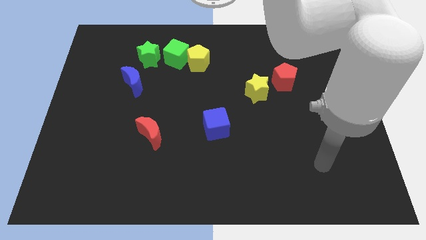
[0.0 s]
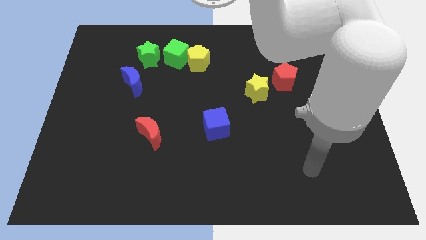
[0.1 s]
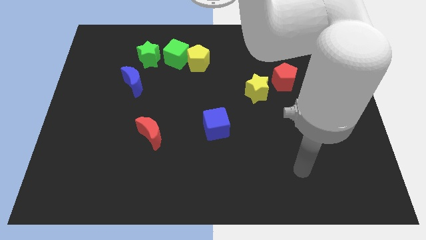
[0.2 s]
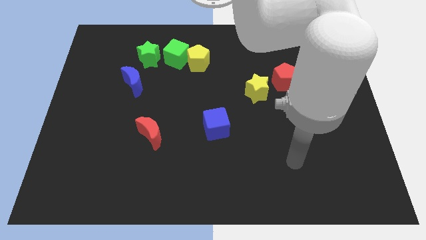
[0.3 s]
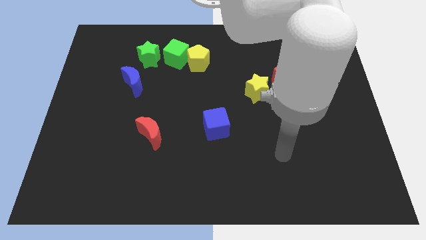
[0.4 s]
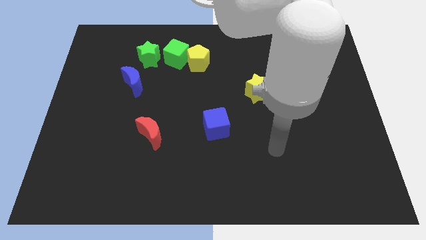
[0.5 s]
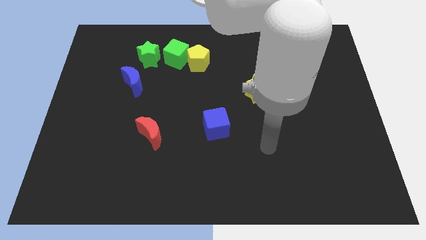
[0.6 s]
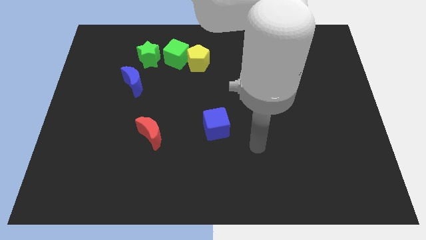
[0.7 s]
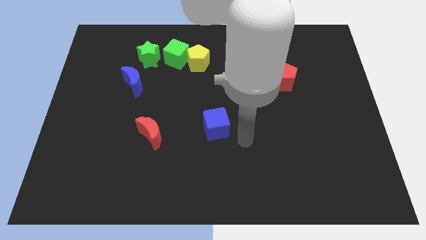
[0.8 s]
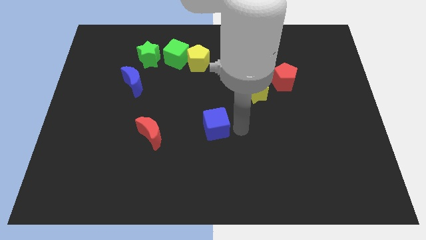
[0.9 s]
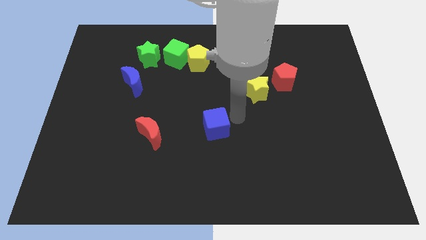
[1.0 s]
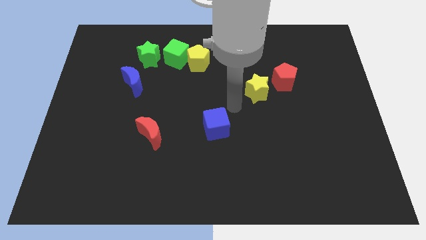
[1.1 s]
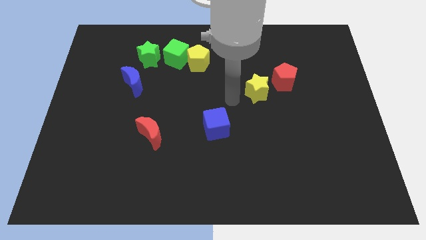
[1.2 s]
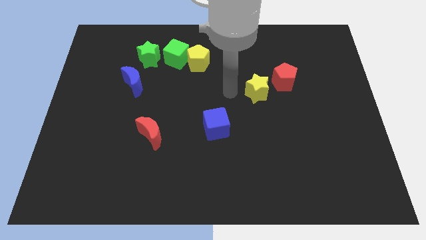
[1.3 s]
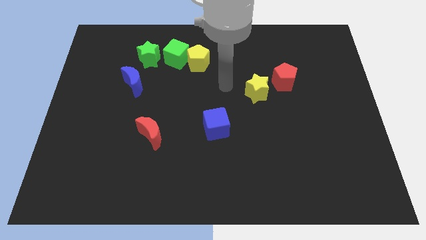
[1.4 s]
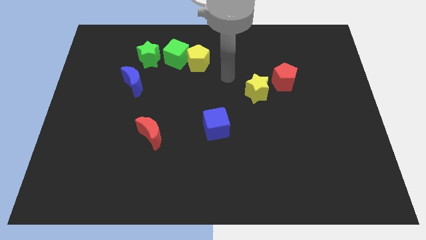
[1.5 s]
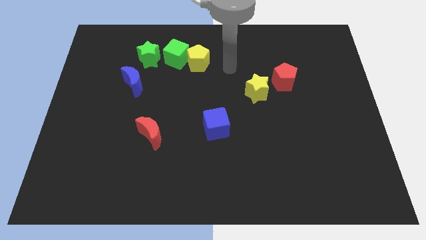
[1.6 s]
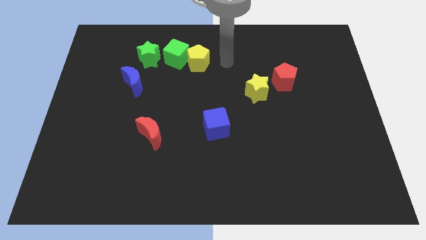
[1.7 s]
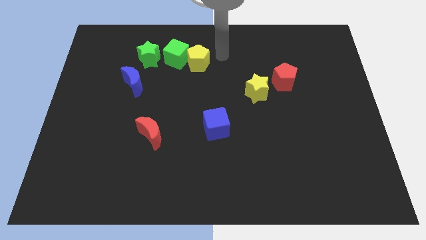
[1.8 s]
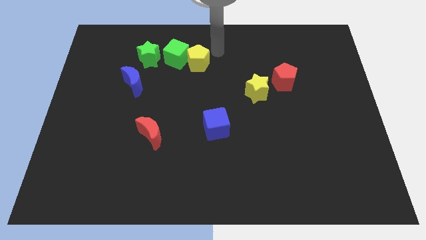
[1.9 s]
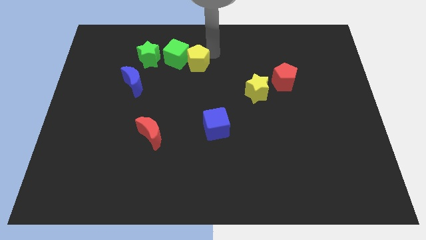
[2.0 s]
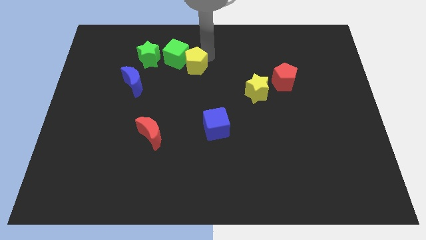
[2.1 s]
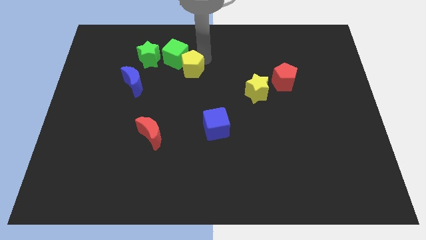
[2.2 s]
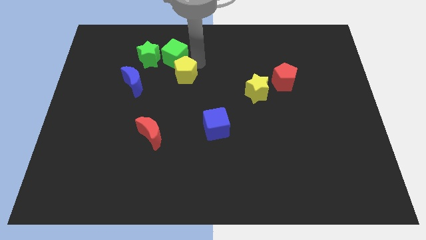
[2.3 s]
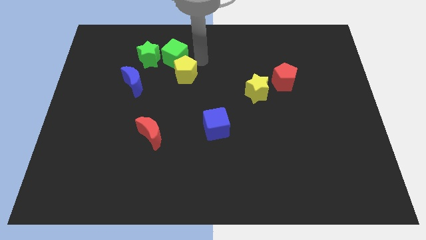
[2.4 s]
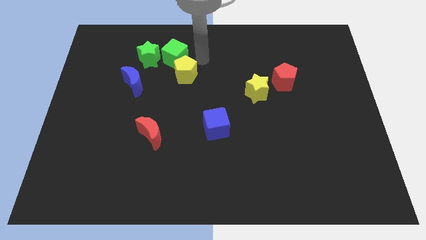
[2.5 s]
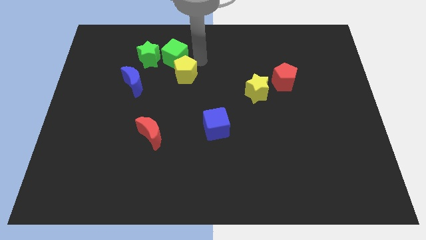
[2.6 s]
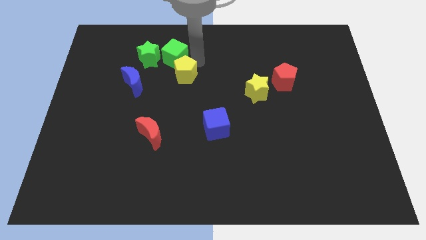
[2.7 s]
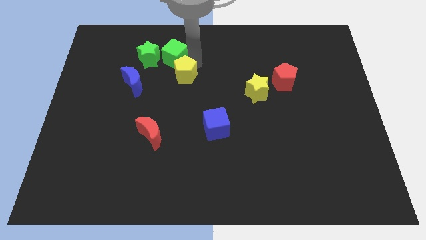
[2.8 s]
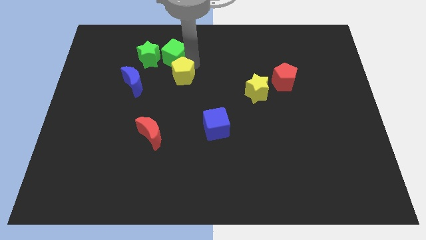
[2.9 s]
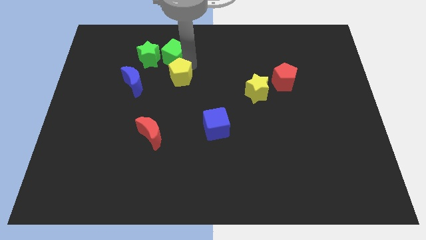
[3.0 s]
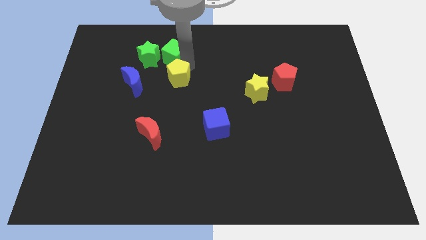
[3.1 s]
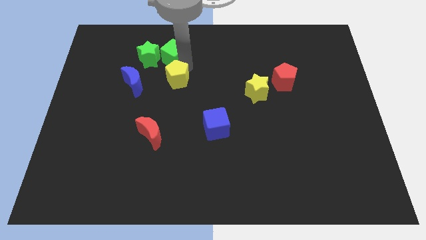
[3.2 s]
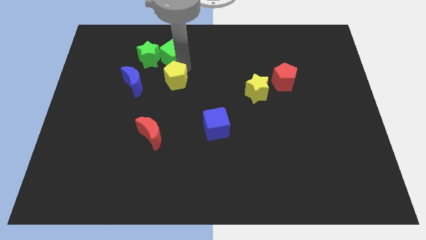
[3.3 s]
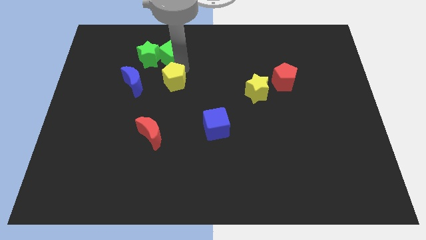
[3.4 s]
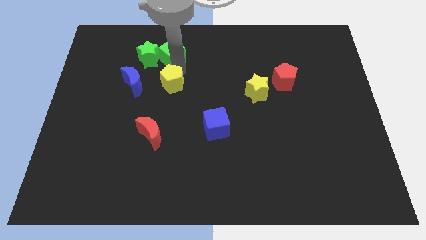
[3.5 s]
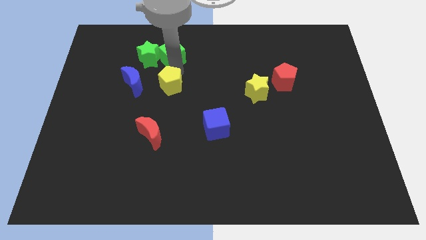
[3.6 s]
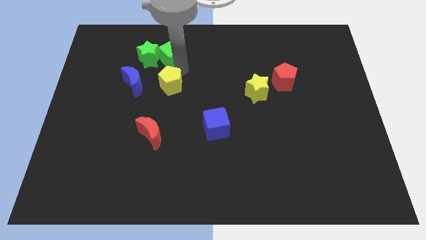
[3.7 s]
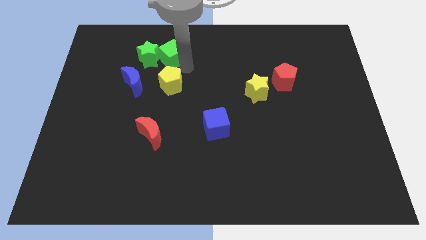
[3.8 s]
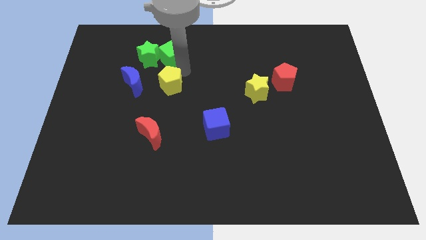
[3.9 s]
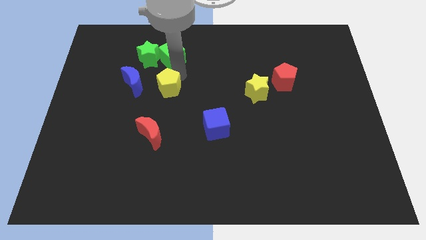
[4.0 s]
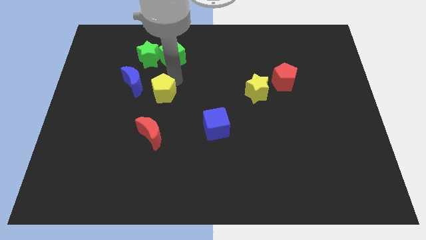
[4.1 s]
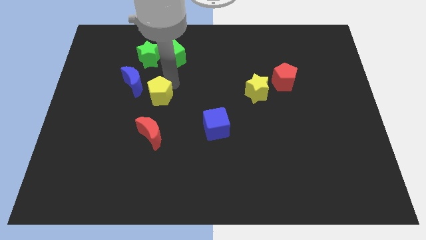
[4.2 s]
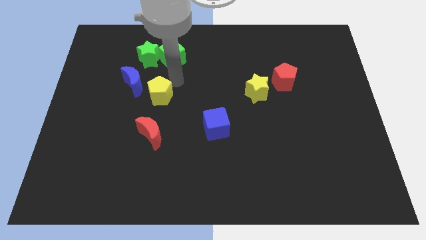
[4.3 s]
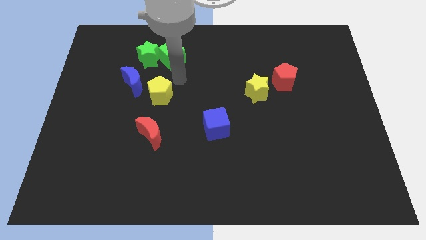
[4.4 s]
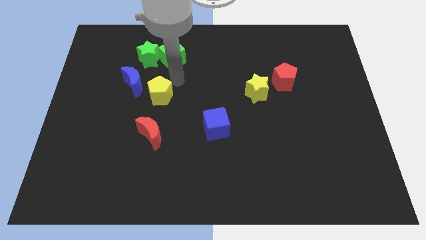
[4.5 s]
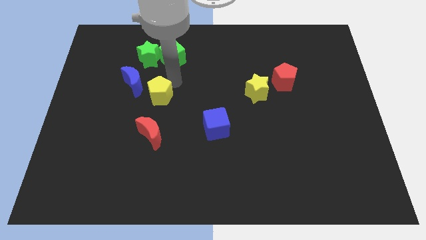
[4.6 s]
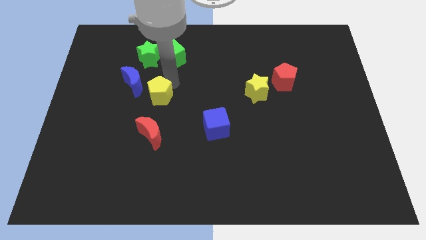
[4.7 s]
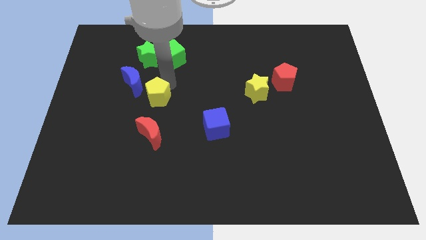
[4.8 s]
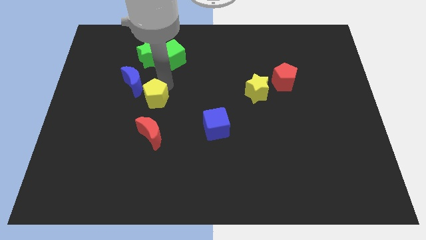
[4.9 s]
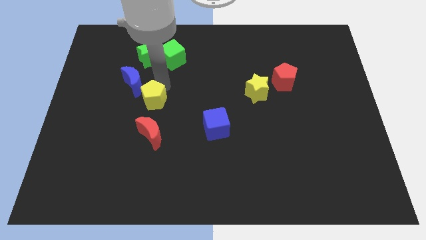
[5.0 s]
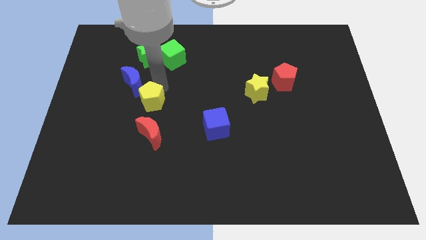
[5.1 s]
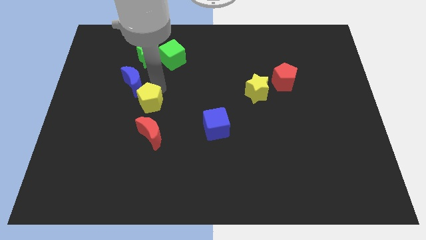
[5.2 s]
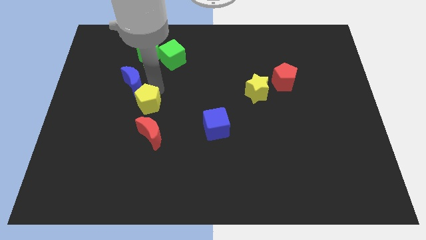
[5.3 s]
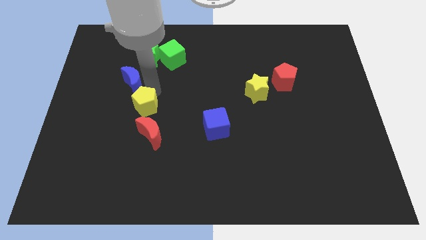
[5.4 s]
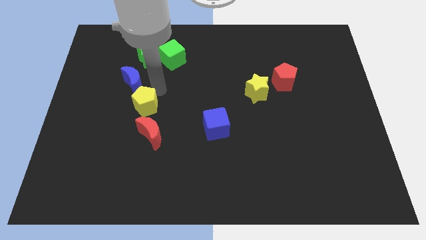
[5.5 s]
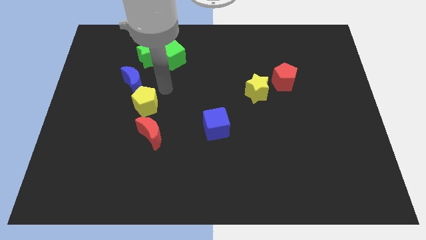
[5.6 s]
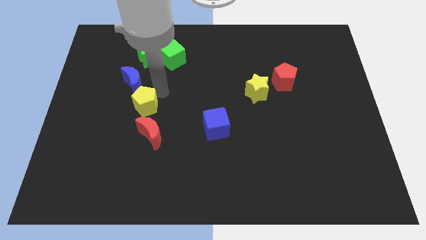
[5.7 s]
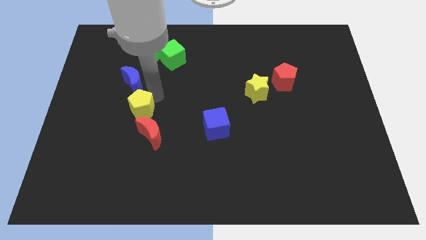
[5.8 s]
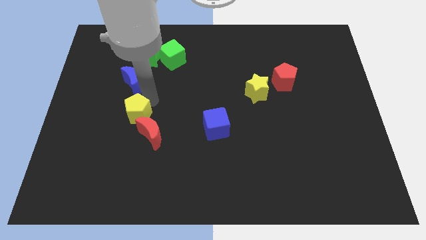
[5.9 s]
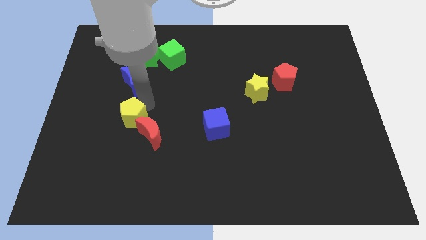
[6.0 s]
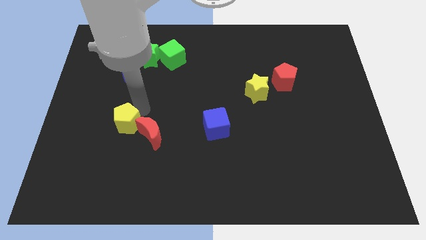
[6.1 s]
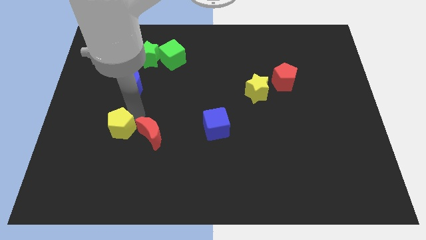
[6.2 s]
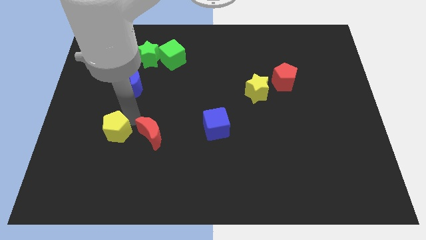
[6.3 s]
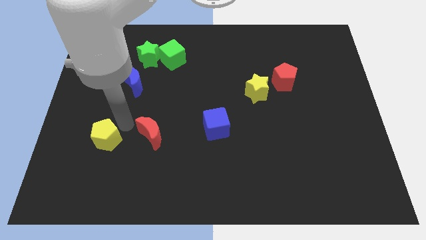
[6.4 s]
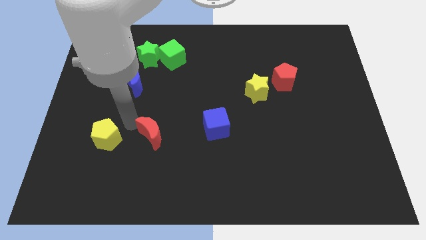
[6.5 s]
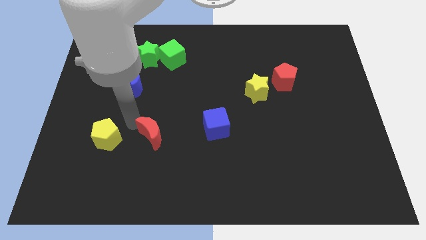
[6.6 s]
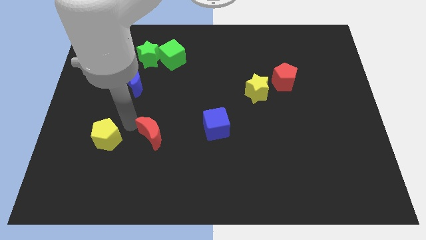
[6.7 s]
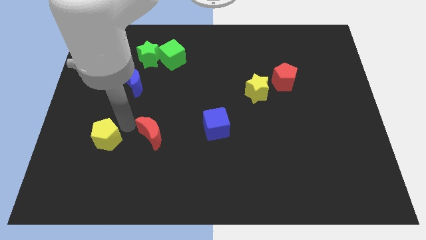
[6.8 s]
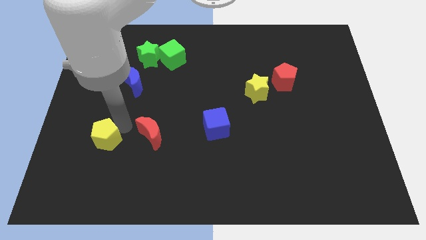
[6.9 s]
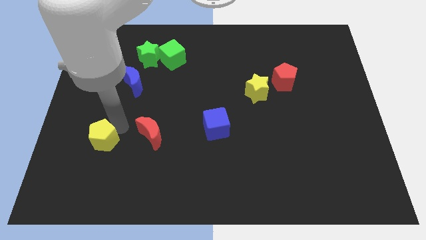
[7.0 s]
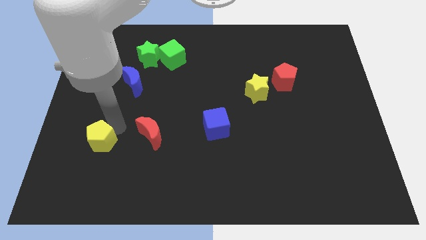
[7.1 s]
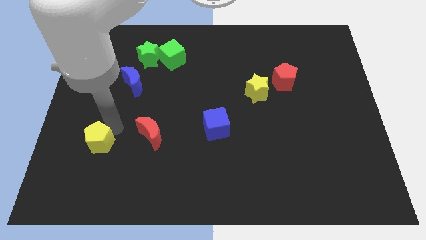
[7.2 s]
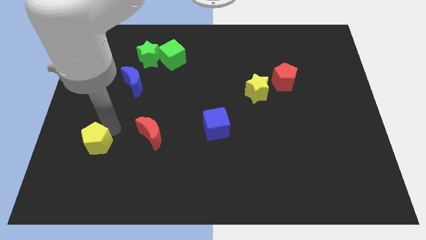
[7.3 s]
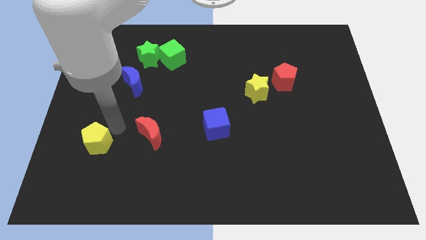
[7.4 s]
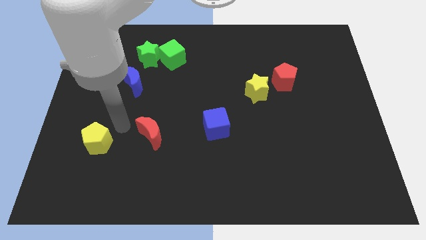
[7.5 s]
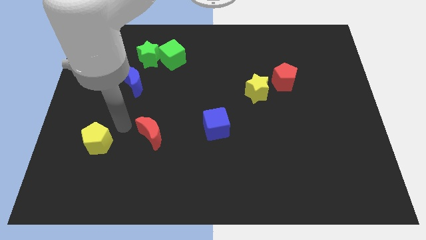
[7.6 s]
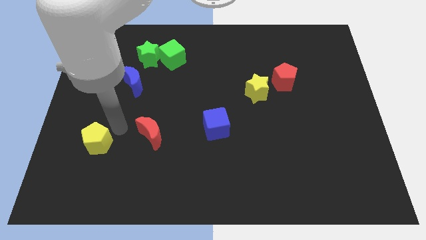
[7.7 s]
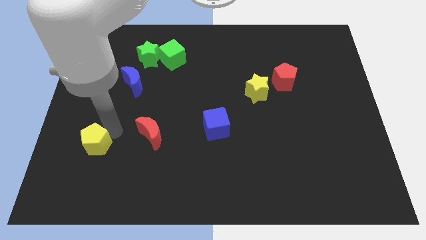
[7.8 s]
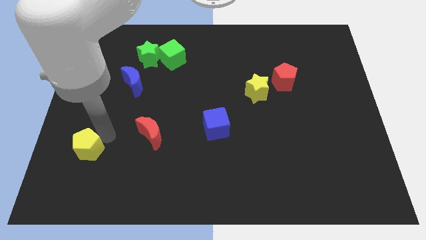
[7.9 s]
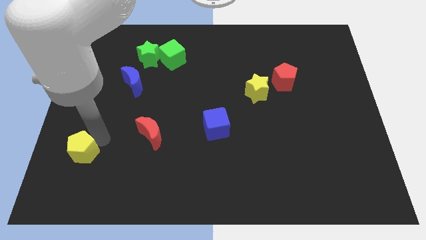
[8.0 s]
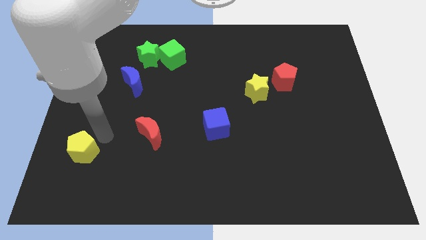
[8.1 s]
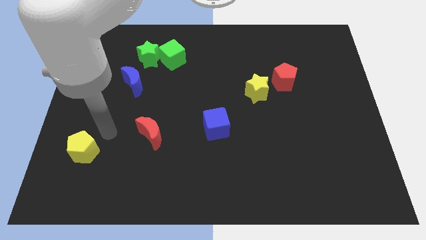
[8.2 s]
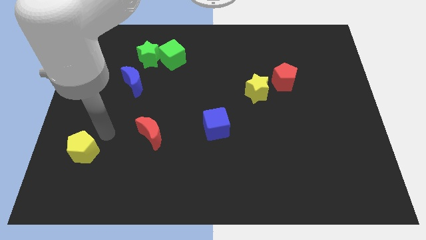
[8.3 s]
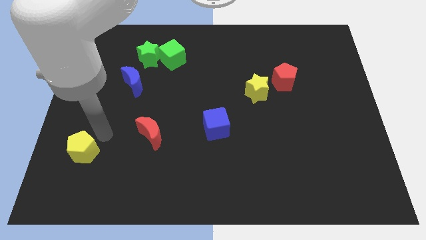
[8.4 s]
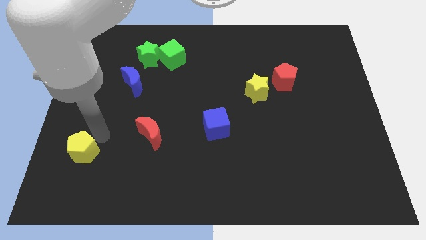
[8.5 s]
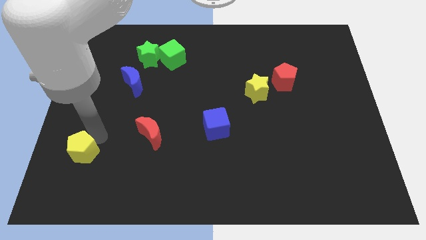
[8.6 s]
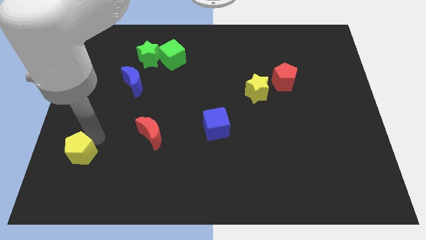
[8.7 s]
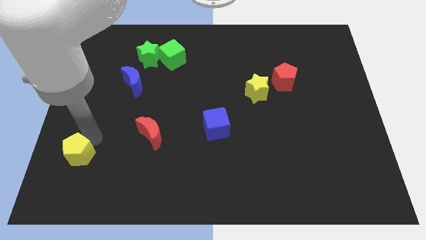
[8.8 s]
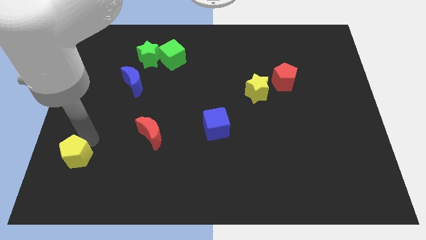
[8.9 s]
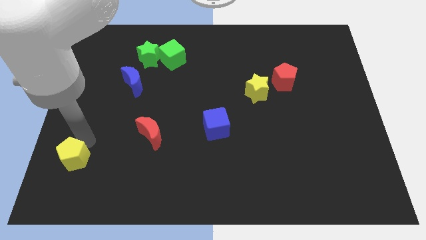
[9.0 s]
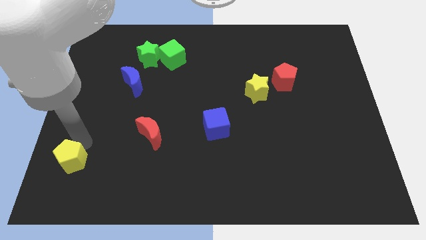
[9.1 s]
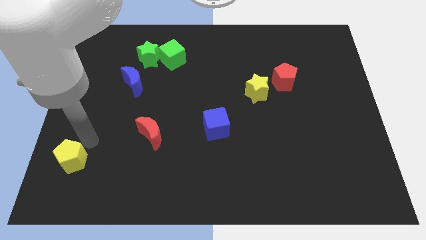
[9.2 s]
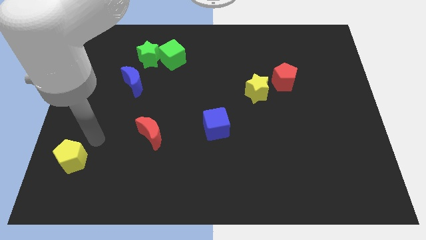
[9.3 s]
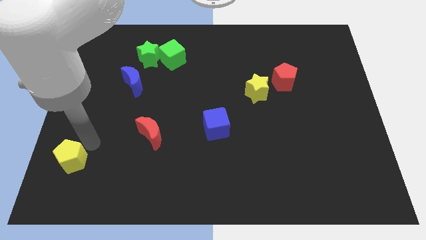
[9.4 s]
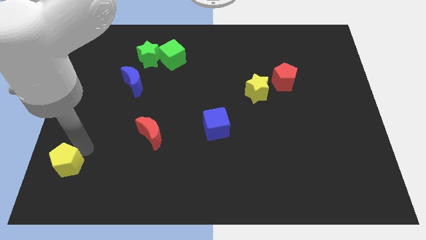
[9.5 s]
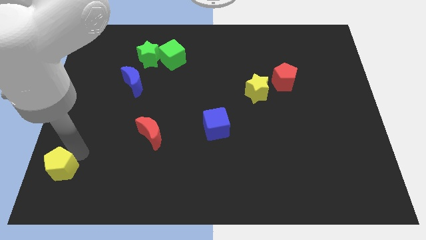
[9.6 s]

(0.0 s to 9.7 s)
slide the yellow pentagon to the bottom left
